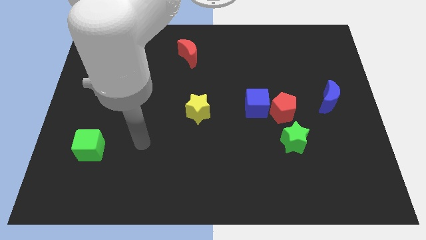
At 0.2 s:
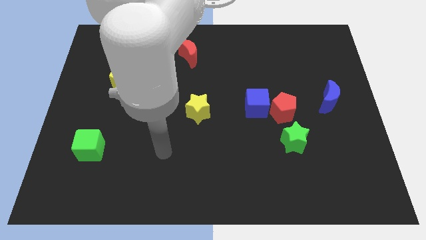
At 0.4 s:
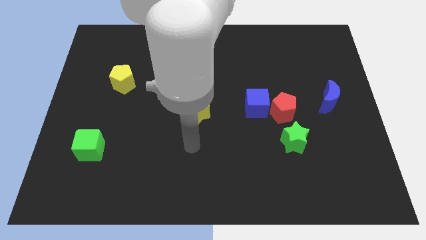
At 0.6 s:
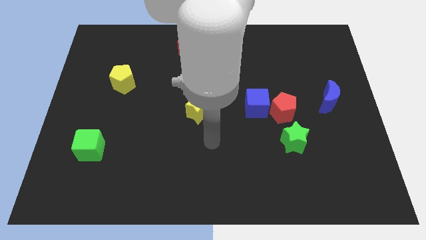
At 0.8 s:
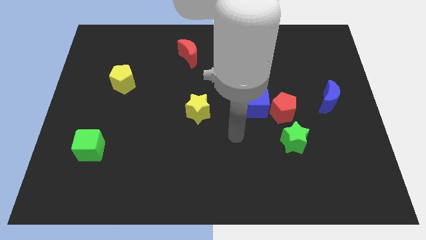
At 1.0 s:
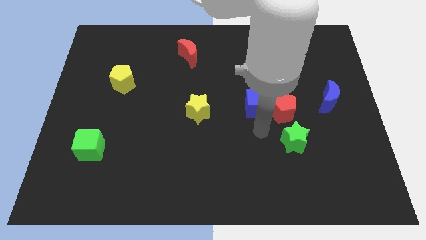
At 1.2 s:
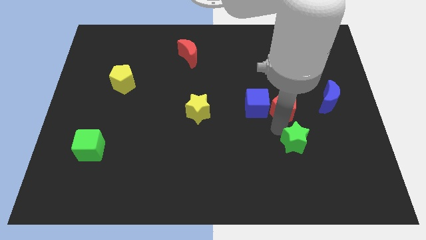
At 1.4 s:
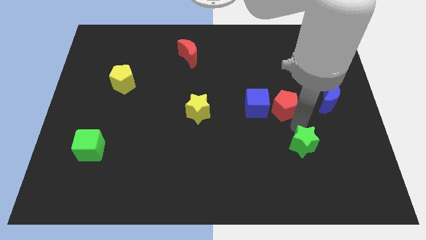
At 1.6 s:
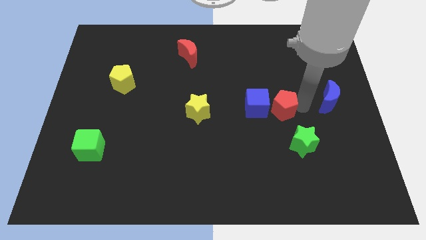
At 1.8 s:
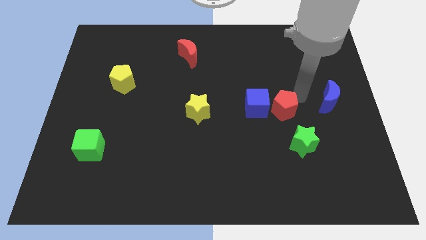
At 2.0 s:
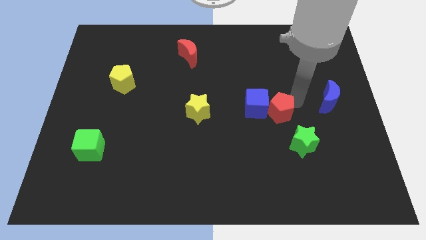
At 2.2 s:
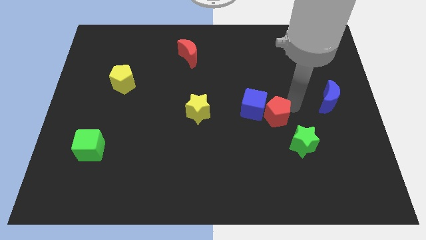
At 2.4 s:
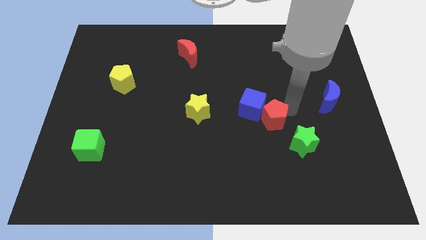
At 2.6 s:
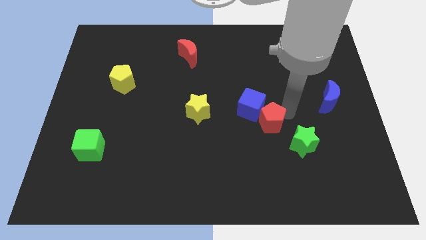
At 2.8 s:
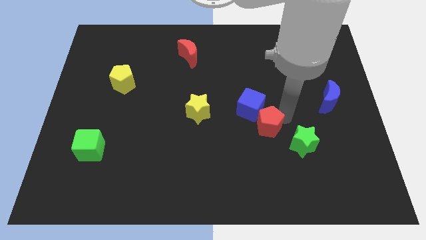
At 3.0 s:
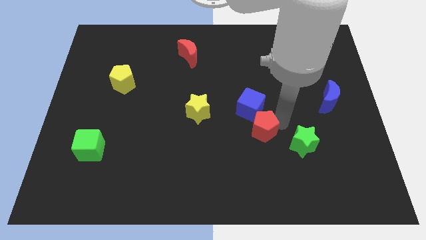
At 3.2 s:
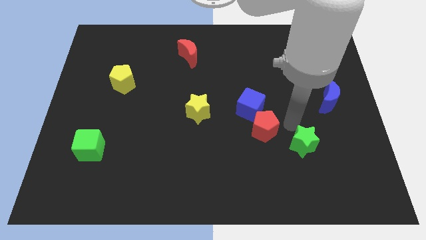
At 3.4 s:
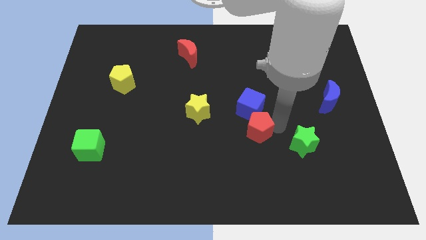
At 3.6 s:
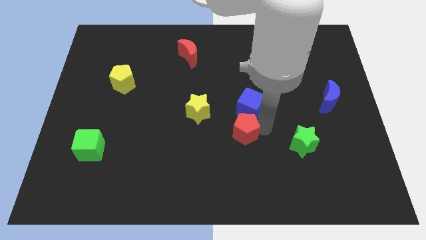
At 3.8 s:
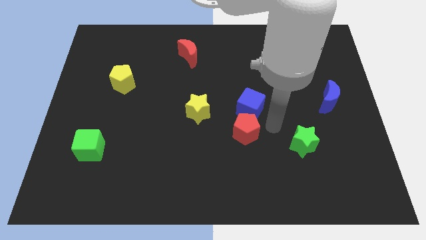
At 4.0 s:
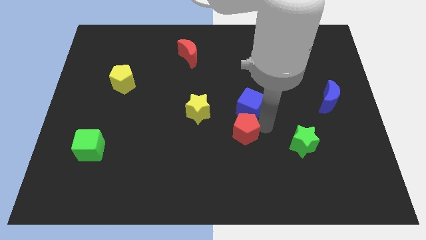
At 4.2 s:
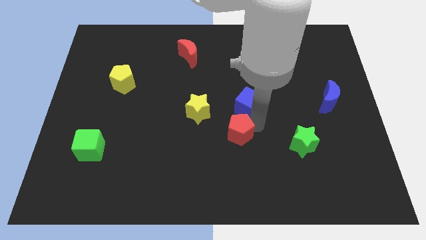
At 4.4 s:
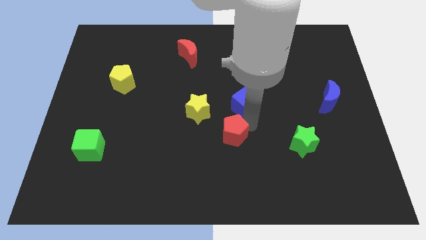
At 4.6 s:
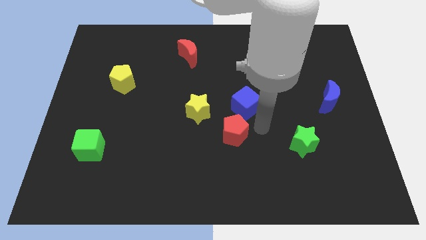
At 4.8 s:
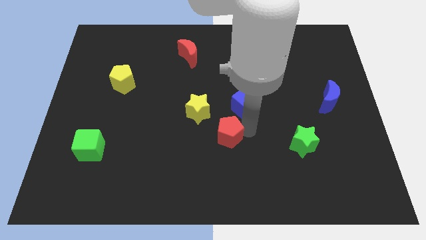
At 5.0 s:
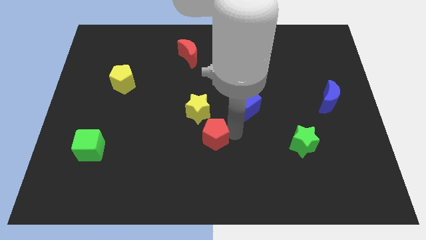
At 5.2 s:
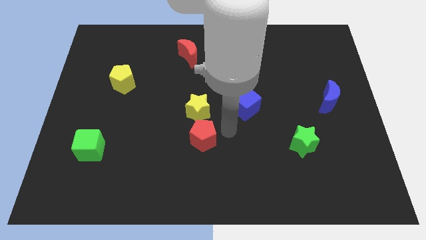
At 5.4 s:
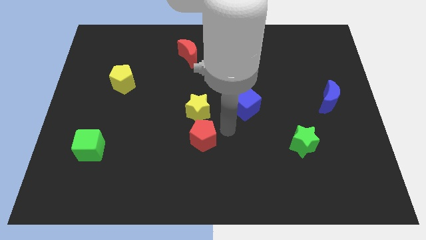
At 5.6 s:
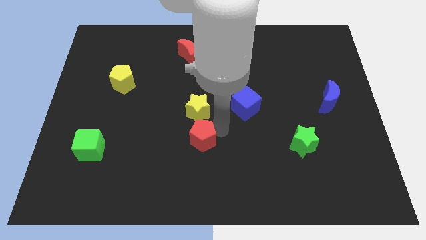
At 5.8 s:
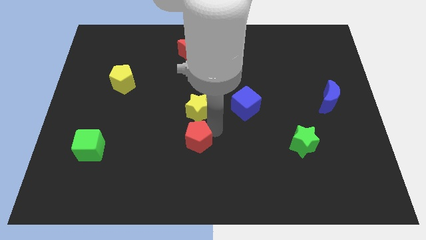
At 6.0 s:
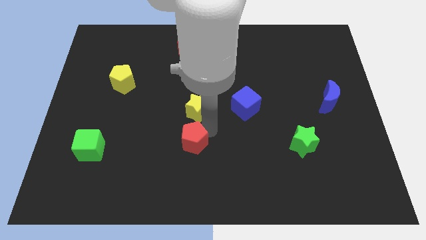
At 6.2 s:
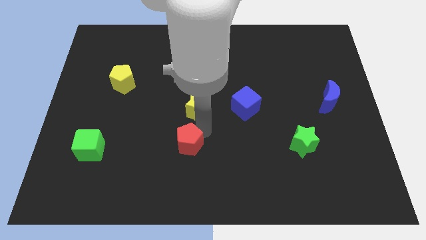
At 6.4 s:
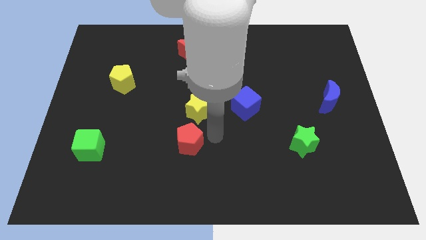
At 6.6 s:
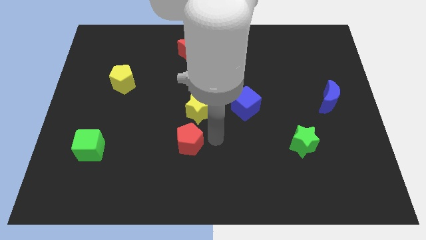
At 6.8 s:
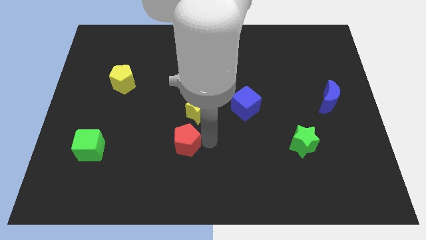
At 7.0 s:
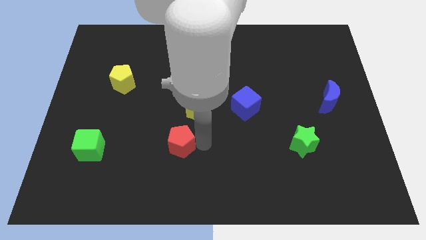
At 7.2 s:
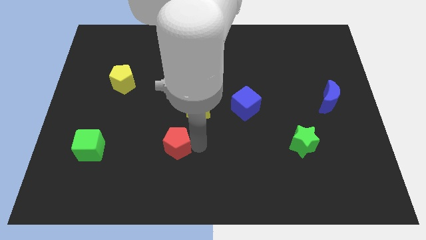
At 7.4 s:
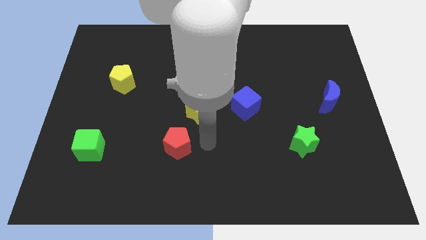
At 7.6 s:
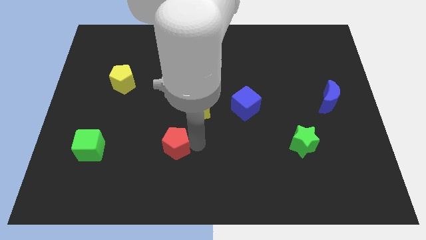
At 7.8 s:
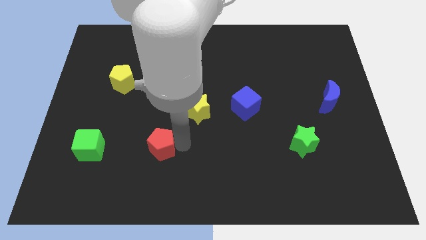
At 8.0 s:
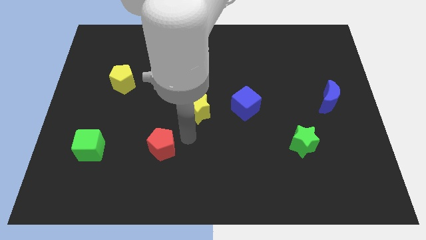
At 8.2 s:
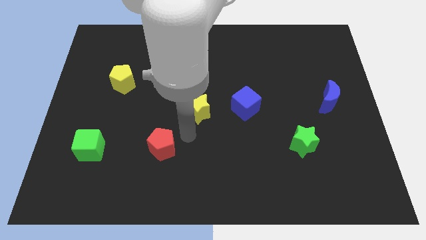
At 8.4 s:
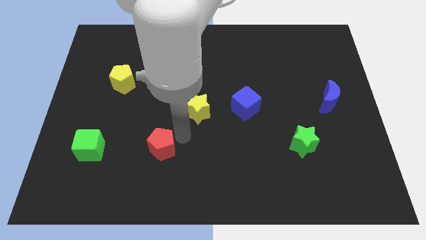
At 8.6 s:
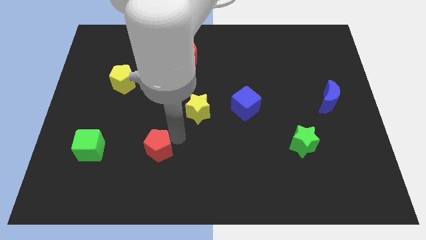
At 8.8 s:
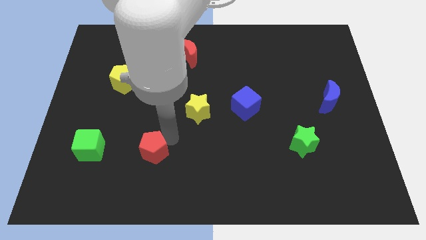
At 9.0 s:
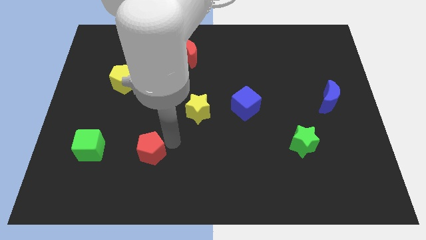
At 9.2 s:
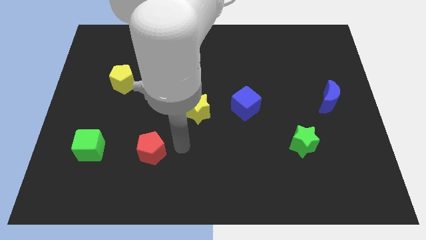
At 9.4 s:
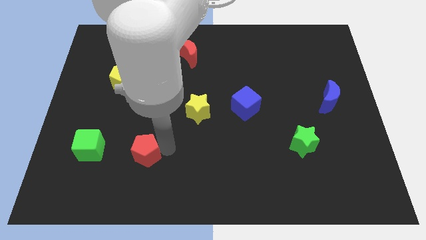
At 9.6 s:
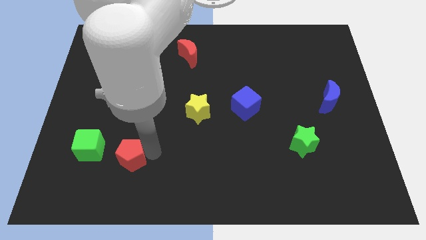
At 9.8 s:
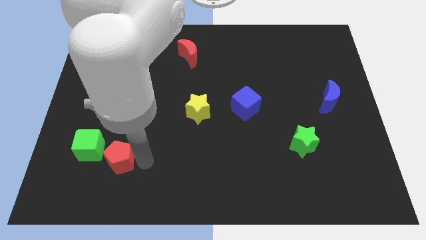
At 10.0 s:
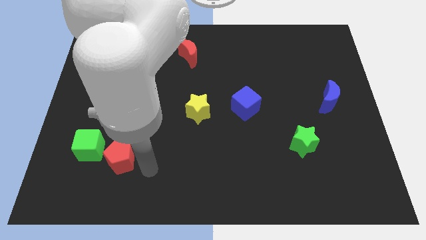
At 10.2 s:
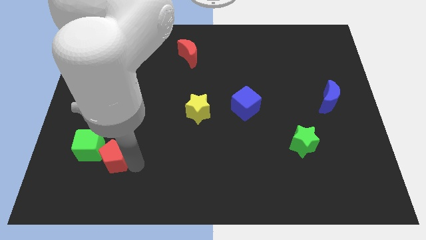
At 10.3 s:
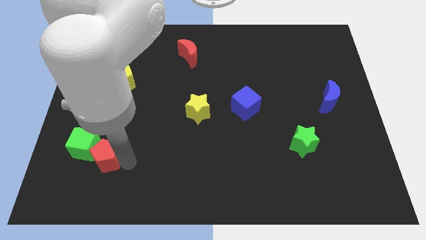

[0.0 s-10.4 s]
move the red pentagon to the green cube

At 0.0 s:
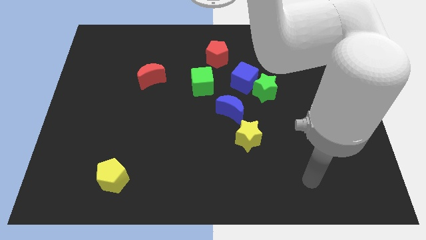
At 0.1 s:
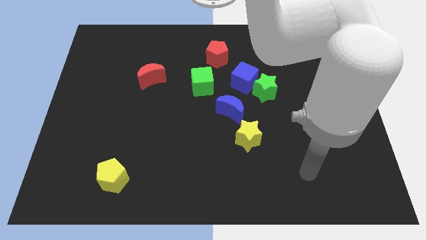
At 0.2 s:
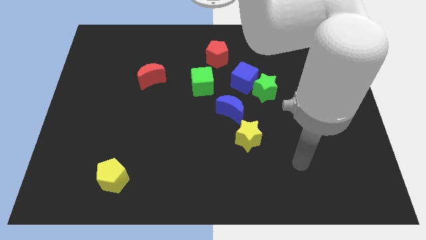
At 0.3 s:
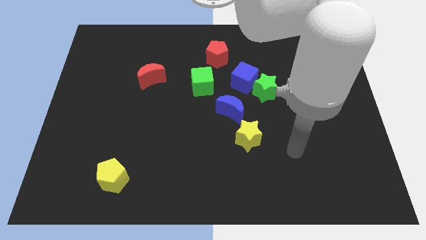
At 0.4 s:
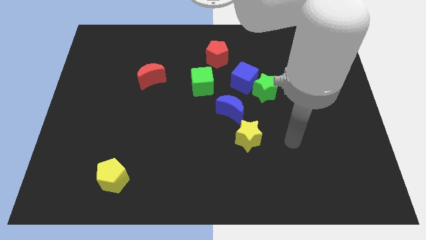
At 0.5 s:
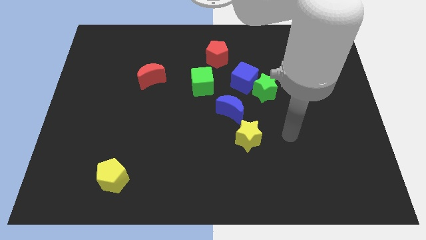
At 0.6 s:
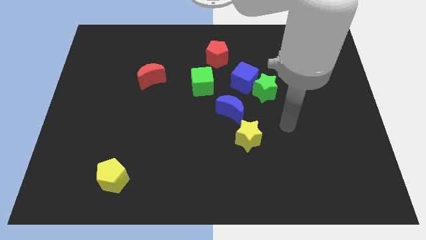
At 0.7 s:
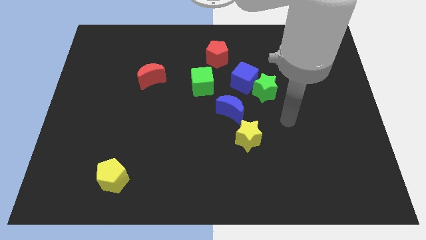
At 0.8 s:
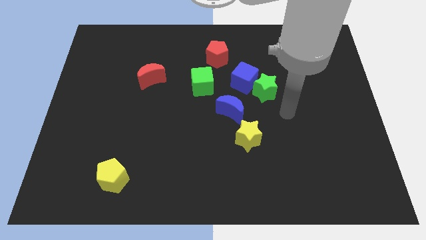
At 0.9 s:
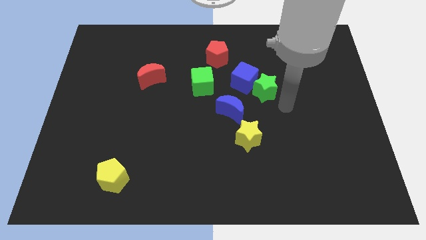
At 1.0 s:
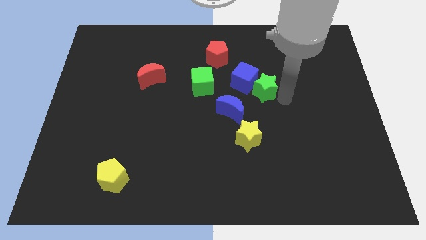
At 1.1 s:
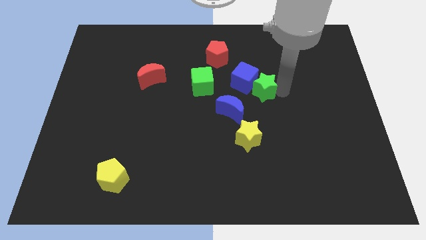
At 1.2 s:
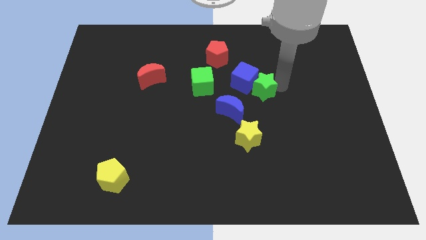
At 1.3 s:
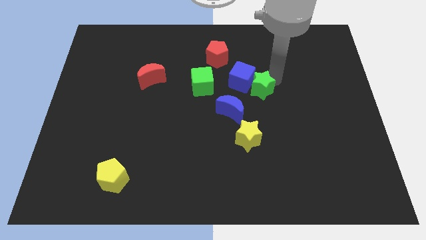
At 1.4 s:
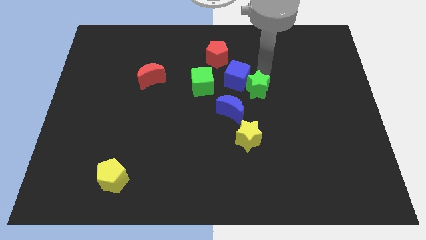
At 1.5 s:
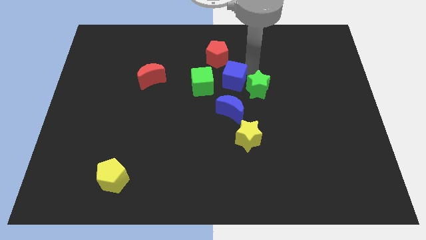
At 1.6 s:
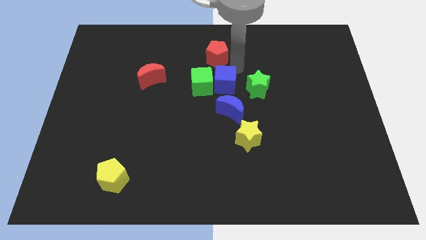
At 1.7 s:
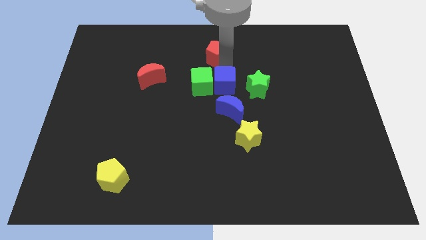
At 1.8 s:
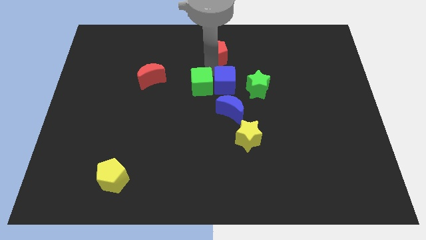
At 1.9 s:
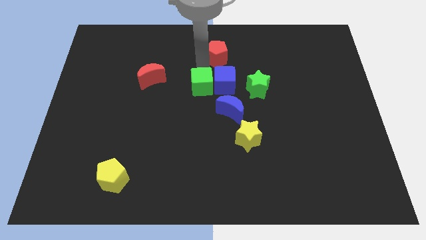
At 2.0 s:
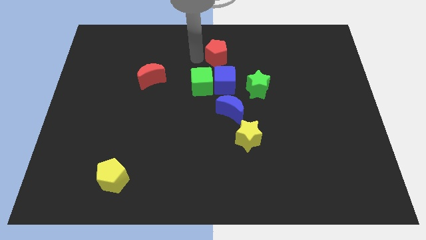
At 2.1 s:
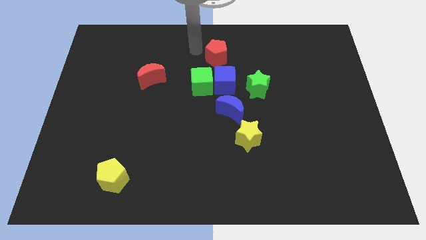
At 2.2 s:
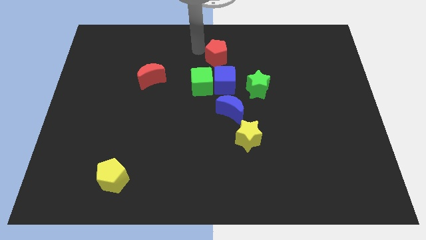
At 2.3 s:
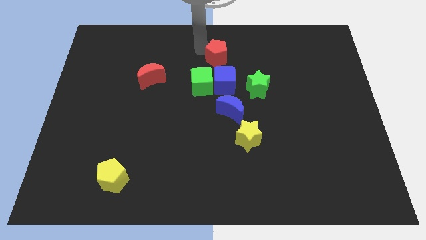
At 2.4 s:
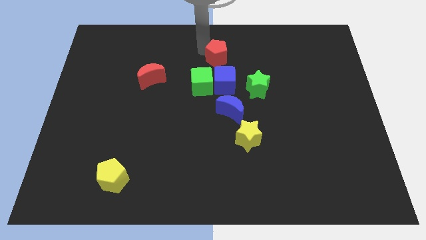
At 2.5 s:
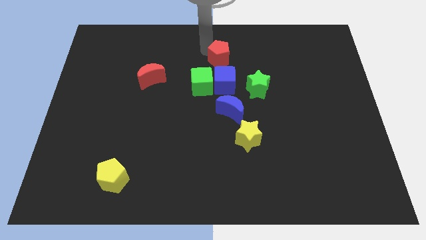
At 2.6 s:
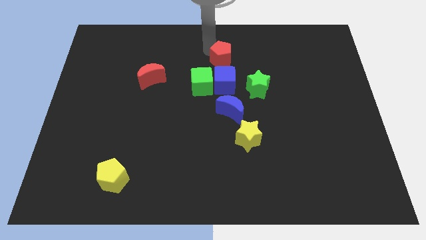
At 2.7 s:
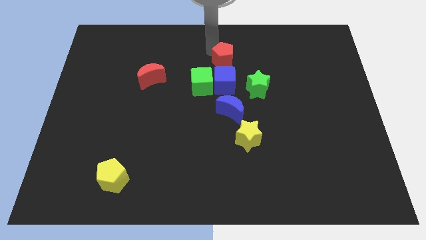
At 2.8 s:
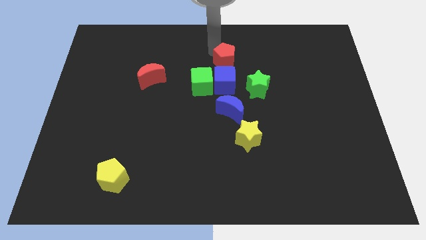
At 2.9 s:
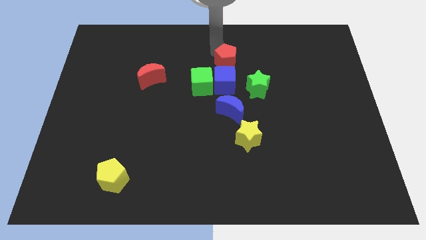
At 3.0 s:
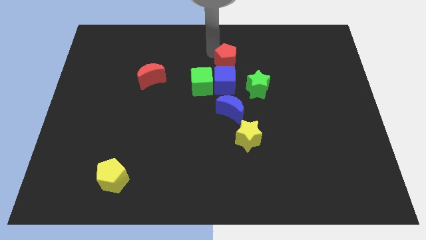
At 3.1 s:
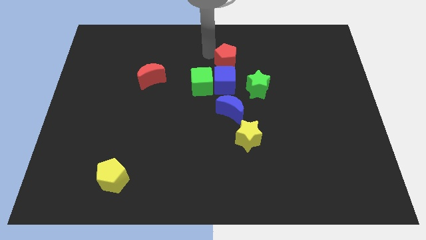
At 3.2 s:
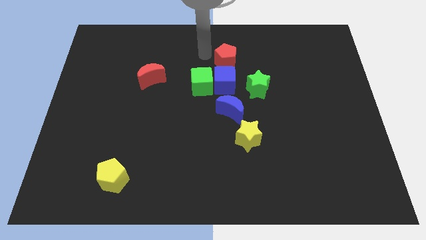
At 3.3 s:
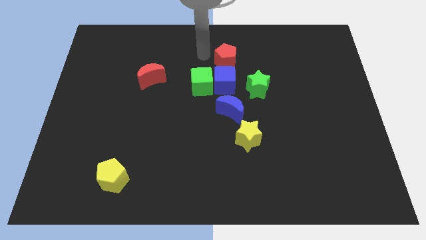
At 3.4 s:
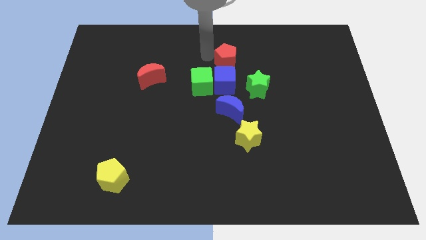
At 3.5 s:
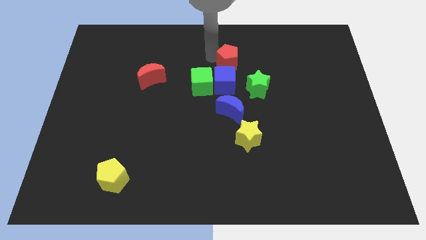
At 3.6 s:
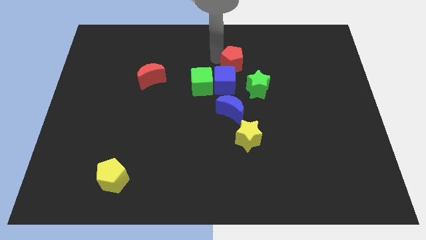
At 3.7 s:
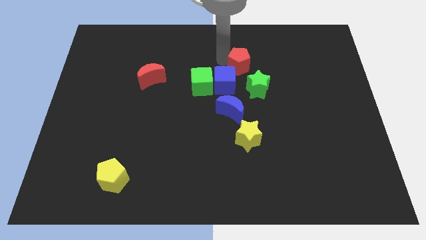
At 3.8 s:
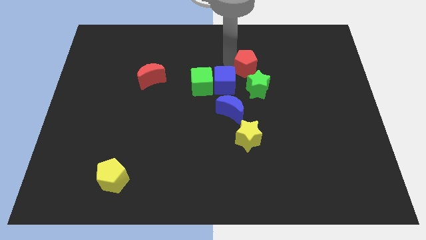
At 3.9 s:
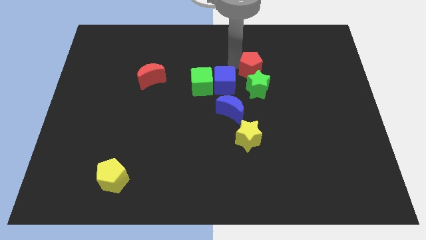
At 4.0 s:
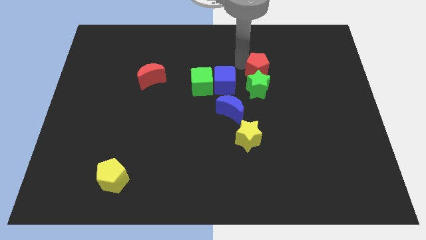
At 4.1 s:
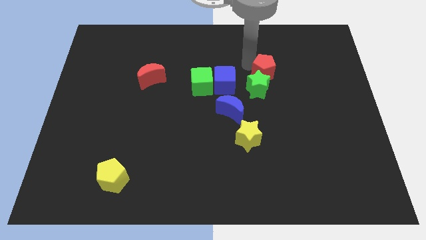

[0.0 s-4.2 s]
slide the red pentagon towards the green star
